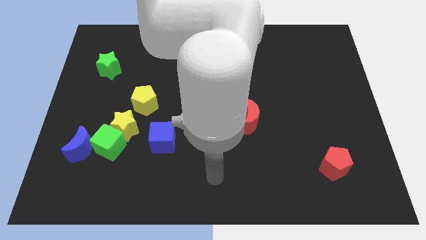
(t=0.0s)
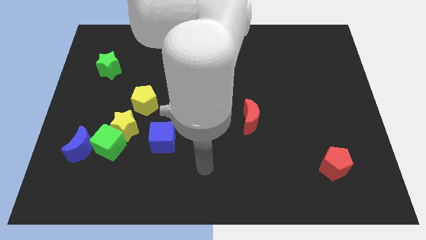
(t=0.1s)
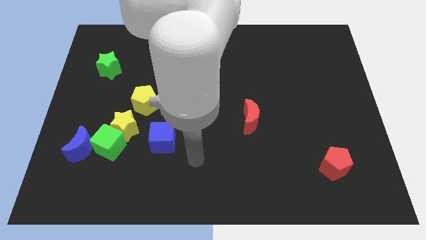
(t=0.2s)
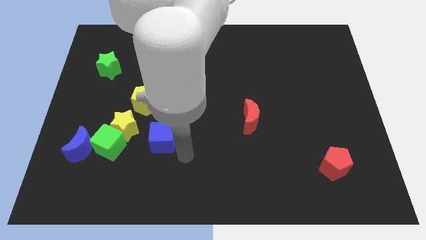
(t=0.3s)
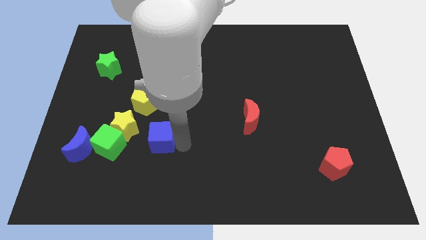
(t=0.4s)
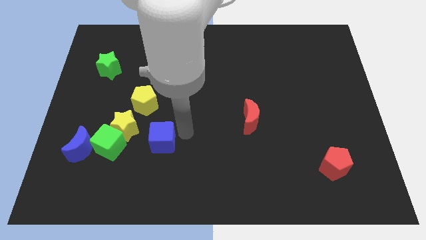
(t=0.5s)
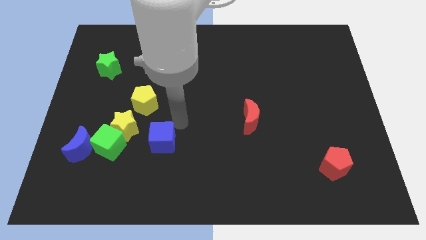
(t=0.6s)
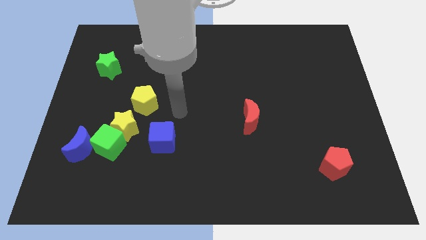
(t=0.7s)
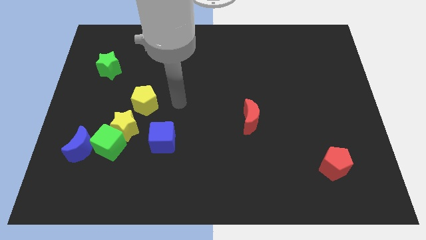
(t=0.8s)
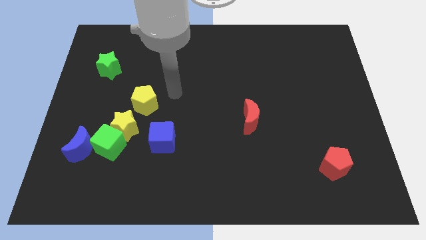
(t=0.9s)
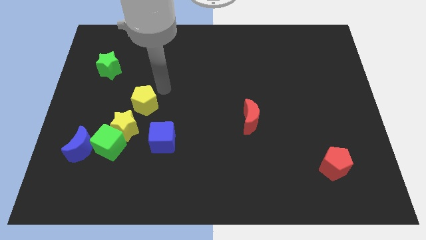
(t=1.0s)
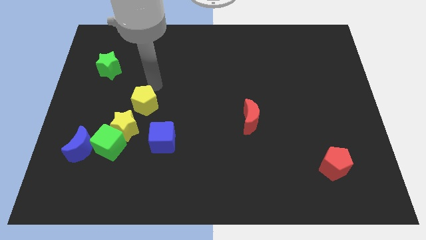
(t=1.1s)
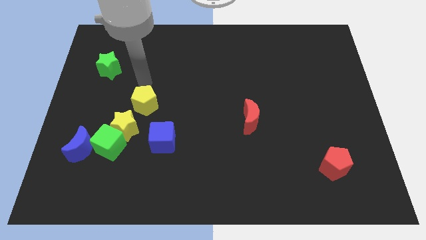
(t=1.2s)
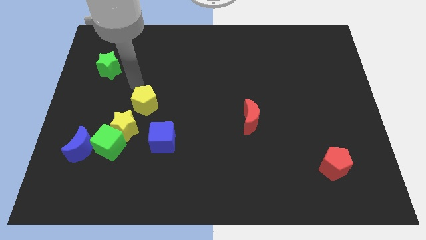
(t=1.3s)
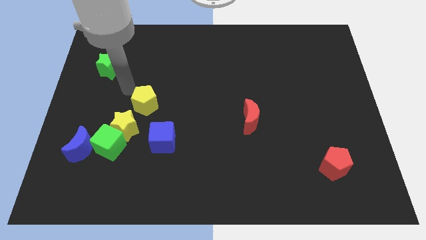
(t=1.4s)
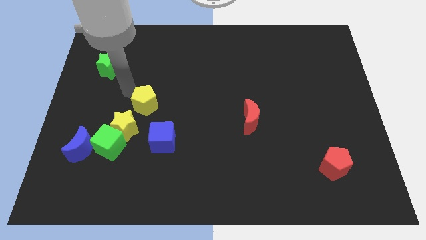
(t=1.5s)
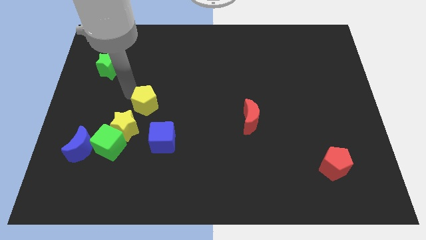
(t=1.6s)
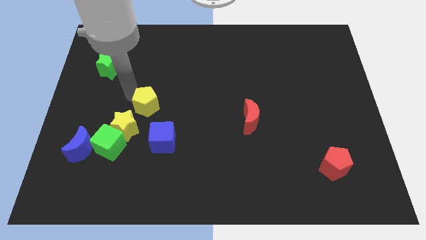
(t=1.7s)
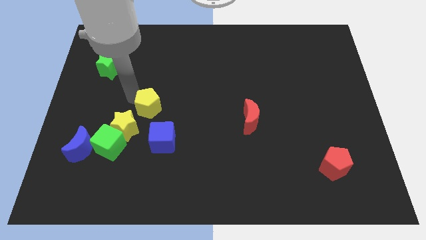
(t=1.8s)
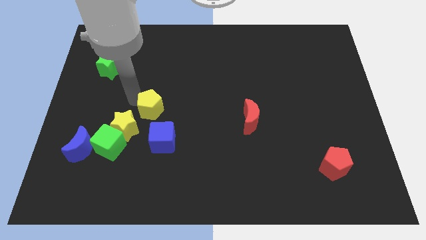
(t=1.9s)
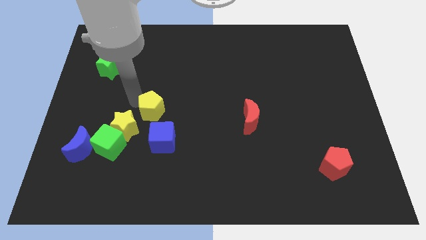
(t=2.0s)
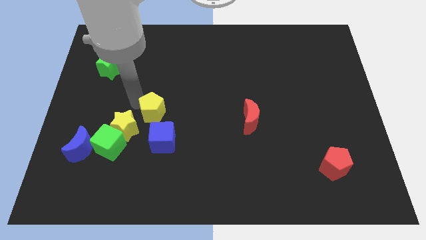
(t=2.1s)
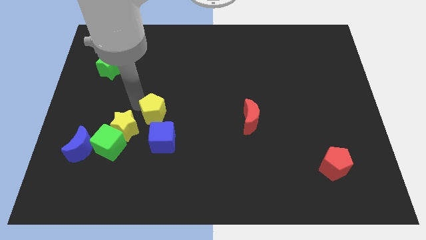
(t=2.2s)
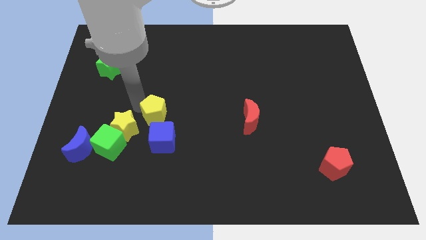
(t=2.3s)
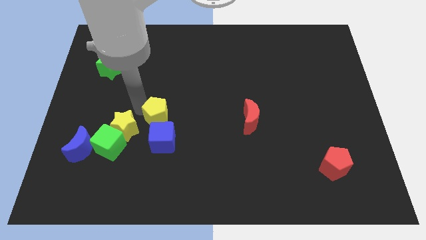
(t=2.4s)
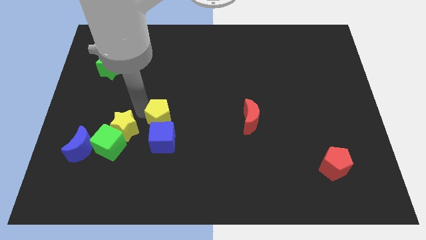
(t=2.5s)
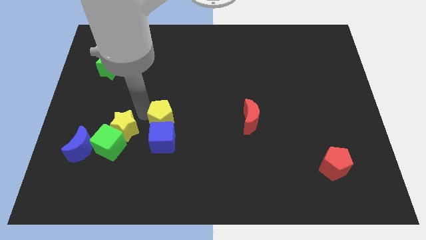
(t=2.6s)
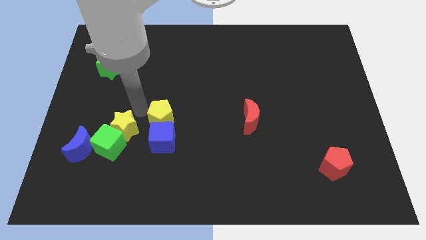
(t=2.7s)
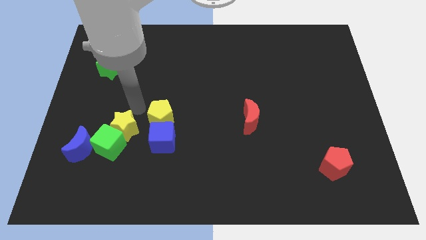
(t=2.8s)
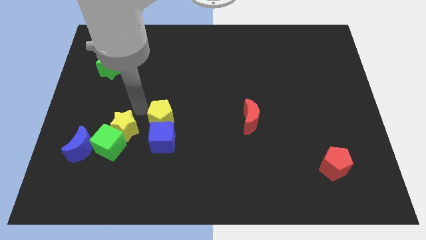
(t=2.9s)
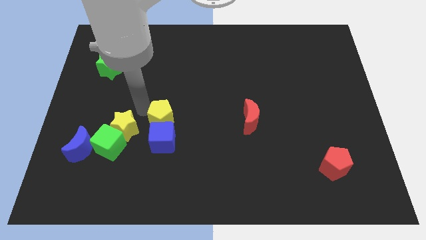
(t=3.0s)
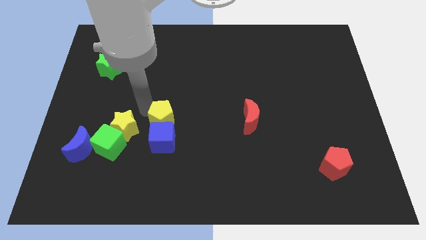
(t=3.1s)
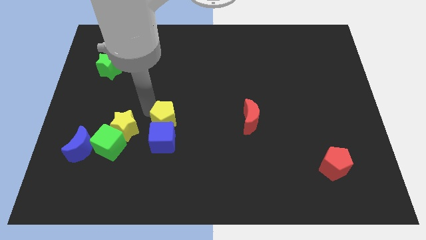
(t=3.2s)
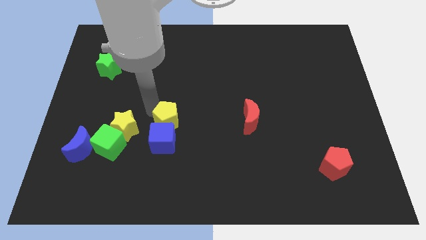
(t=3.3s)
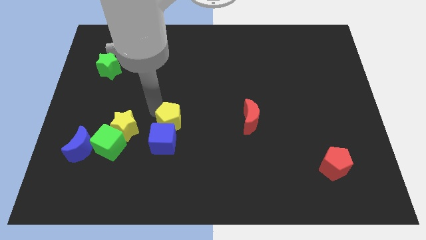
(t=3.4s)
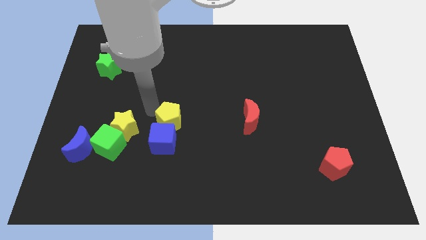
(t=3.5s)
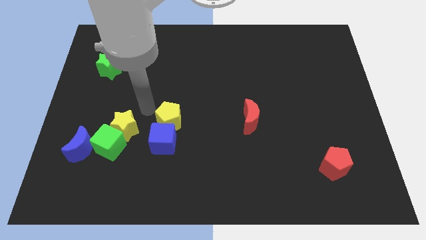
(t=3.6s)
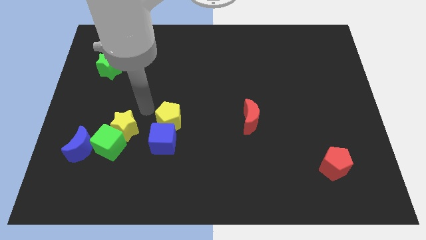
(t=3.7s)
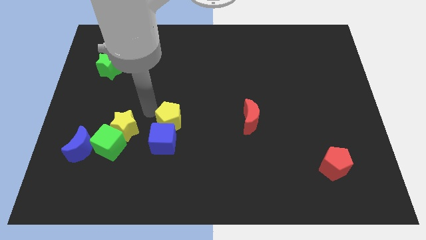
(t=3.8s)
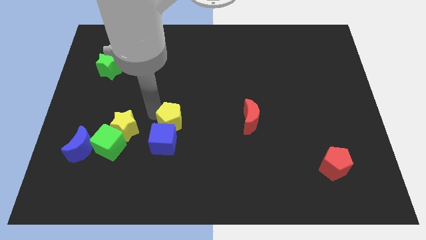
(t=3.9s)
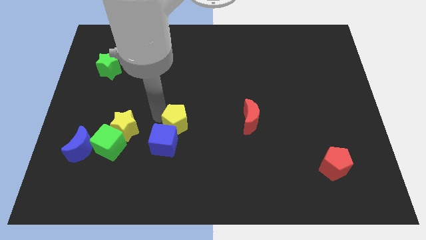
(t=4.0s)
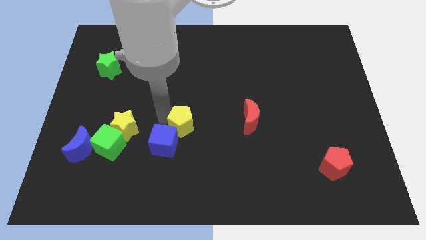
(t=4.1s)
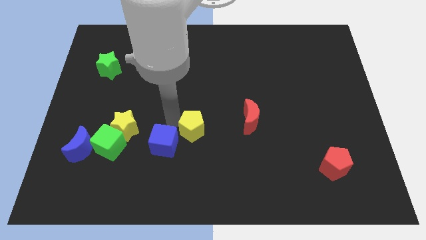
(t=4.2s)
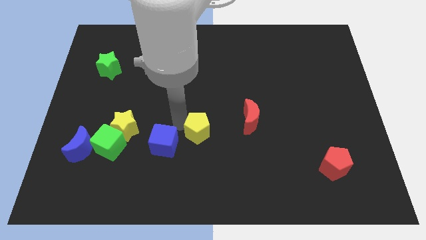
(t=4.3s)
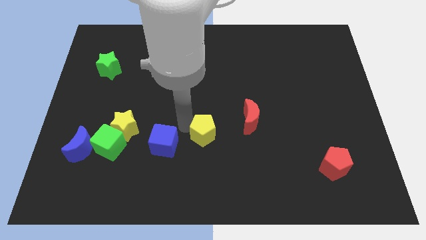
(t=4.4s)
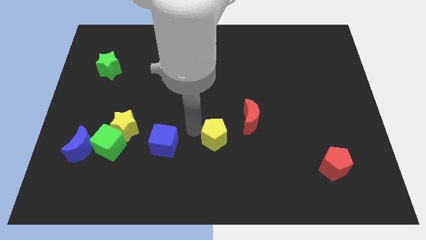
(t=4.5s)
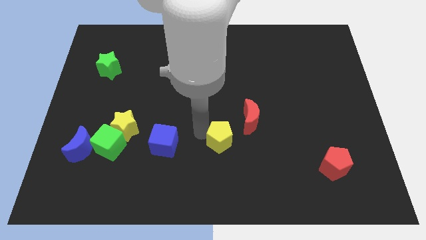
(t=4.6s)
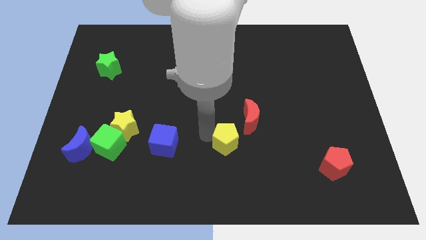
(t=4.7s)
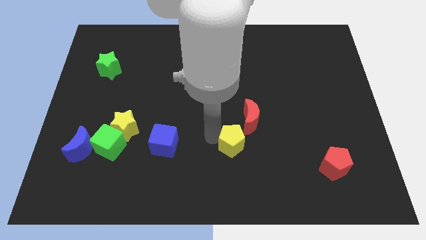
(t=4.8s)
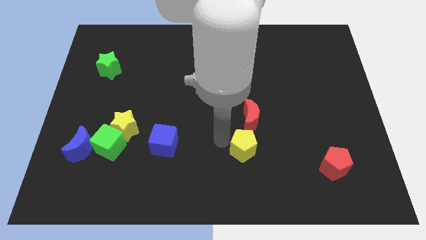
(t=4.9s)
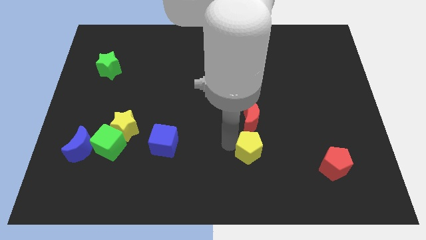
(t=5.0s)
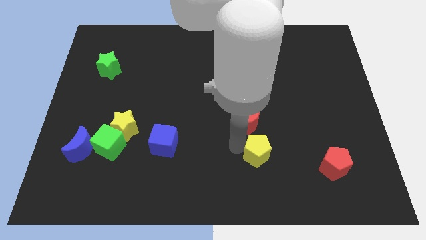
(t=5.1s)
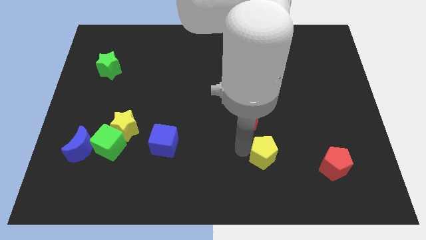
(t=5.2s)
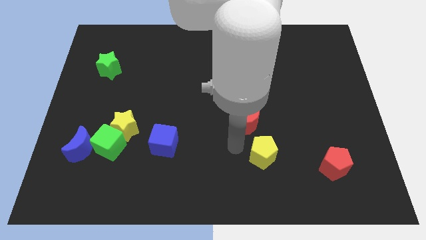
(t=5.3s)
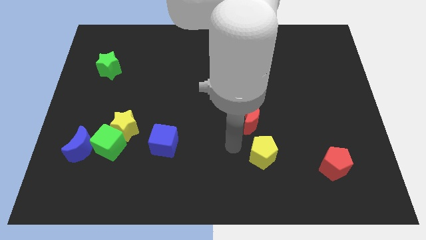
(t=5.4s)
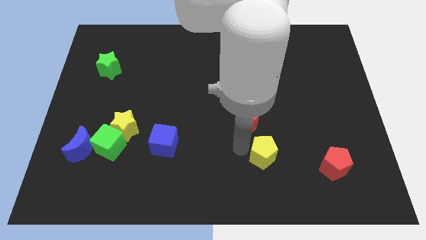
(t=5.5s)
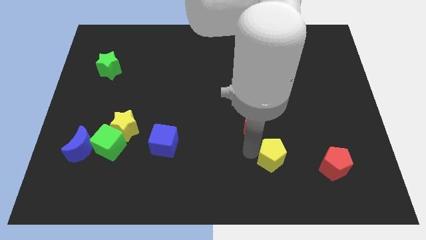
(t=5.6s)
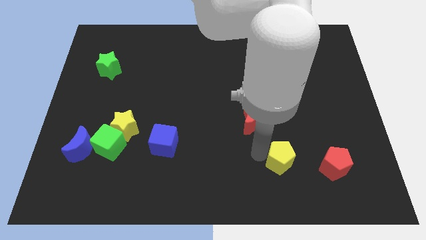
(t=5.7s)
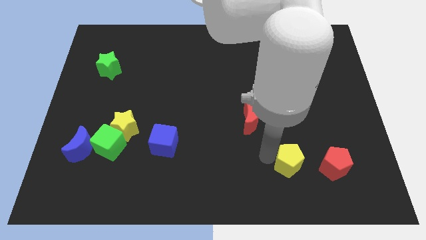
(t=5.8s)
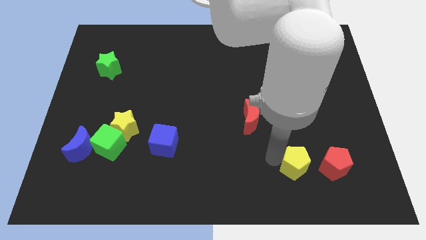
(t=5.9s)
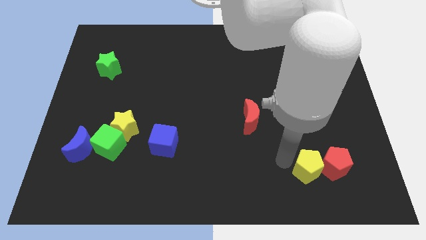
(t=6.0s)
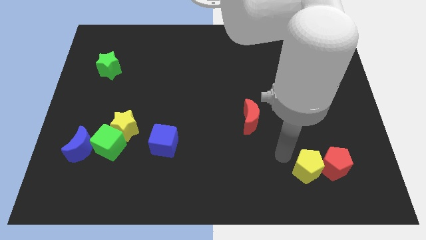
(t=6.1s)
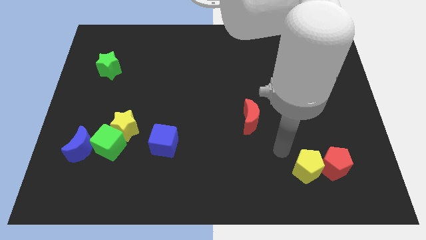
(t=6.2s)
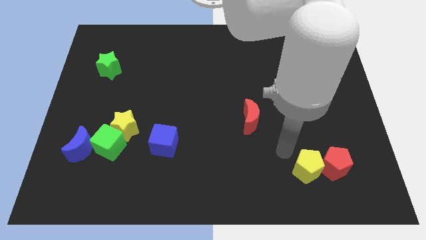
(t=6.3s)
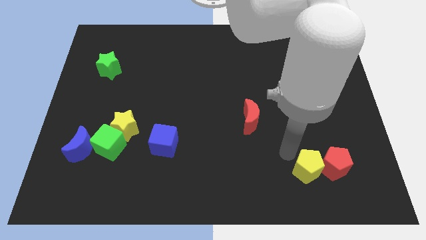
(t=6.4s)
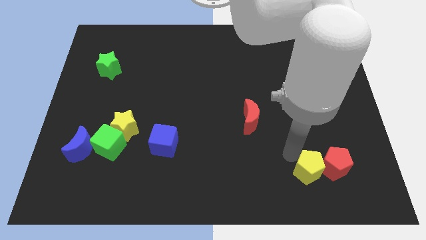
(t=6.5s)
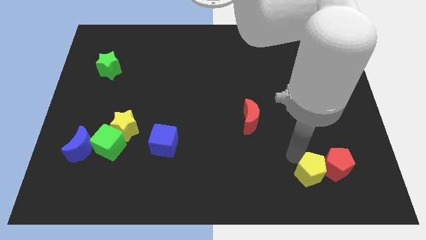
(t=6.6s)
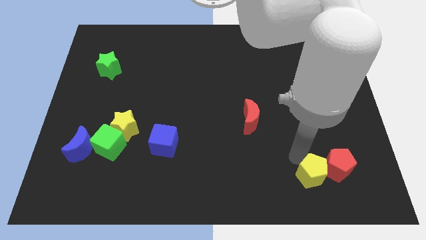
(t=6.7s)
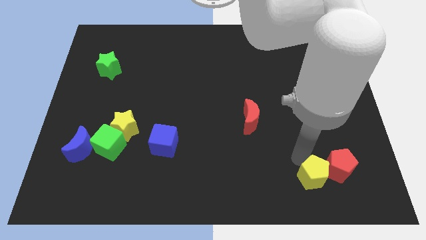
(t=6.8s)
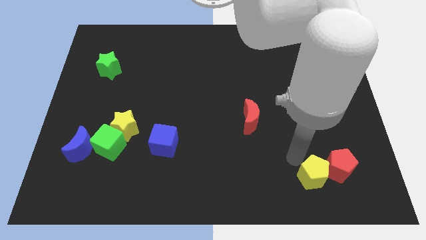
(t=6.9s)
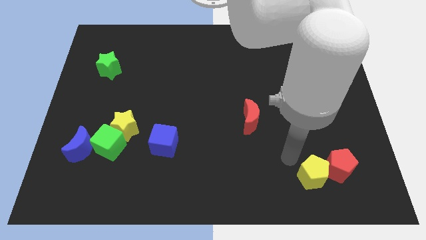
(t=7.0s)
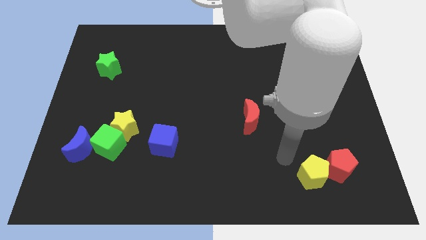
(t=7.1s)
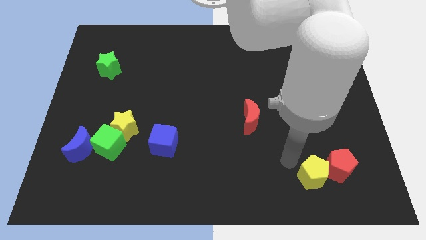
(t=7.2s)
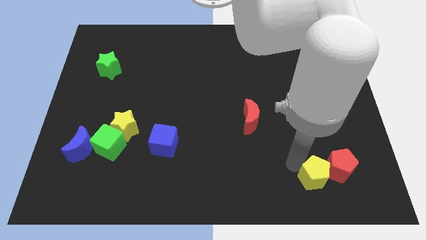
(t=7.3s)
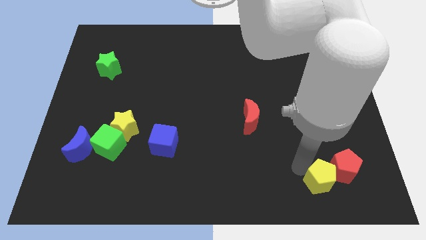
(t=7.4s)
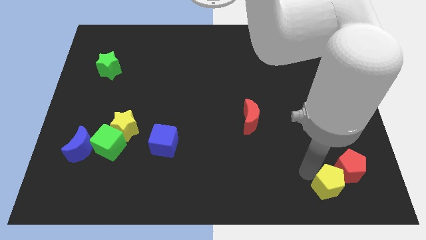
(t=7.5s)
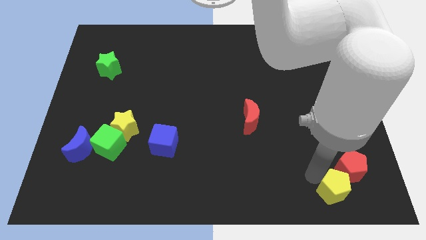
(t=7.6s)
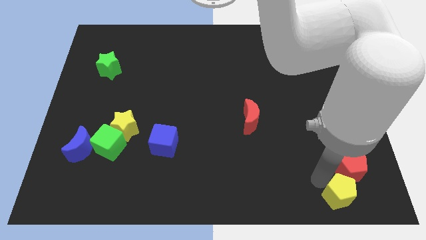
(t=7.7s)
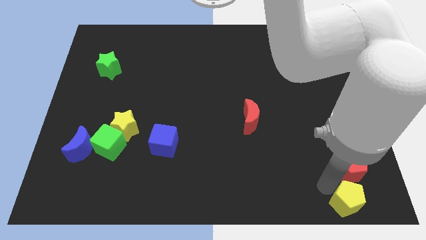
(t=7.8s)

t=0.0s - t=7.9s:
move the yellow pentagon to the lower right corner
